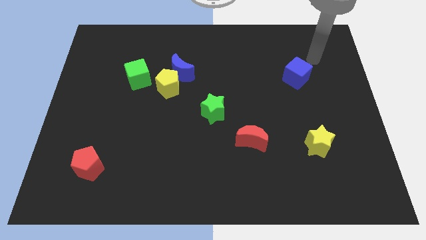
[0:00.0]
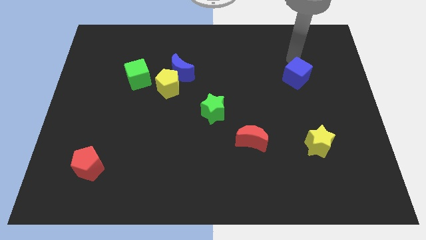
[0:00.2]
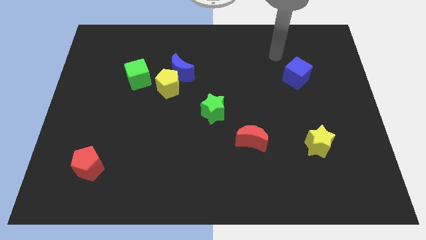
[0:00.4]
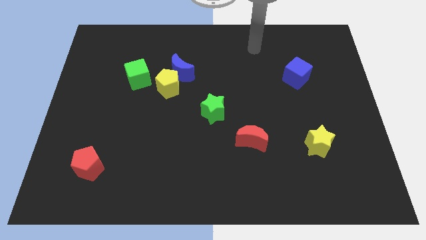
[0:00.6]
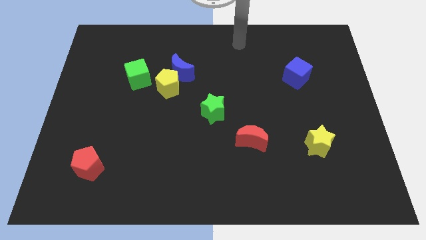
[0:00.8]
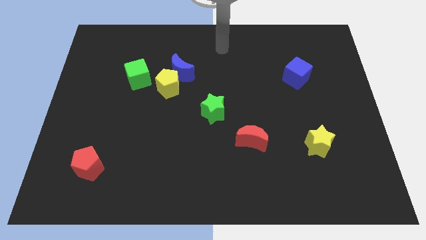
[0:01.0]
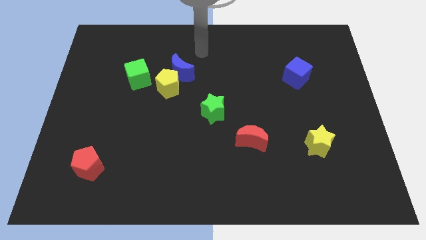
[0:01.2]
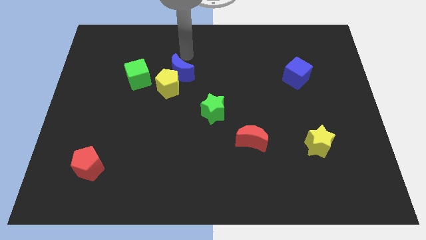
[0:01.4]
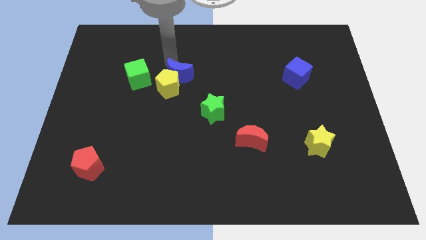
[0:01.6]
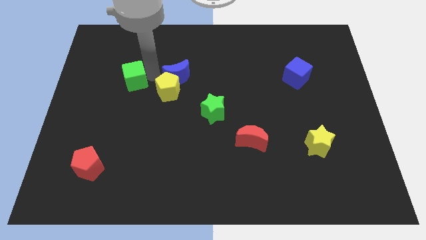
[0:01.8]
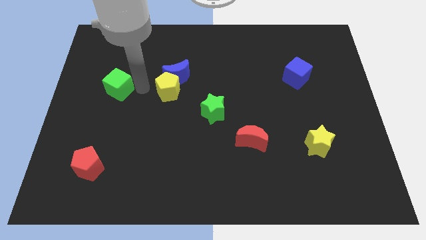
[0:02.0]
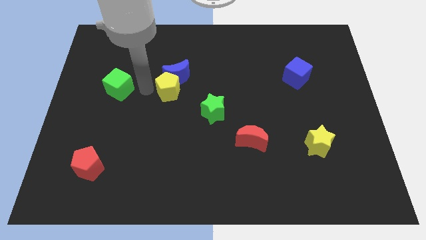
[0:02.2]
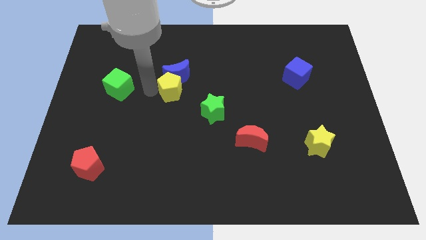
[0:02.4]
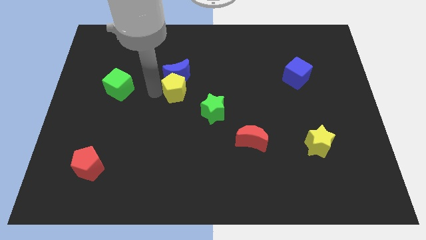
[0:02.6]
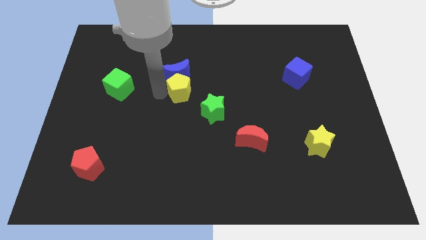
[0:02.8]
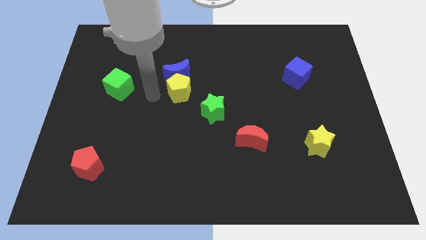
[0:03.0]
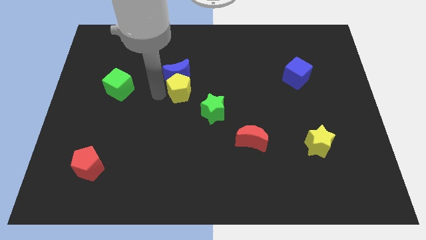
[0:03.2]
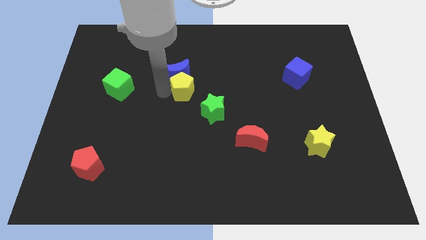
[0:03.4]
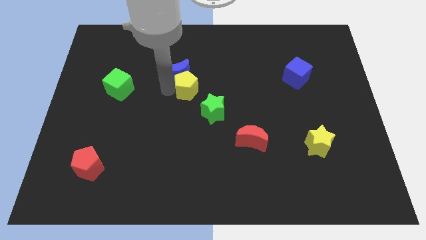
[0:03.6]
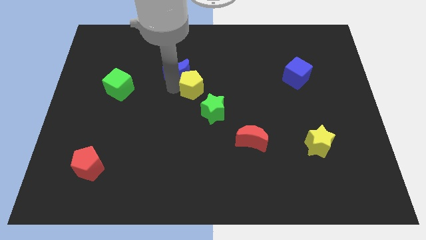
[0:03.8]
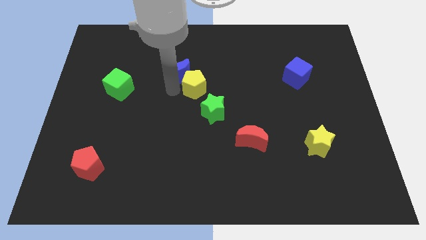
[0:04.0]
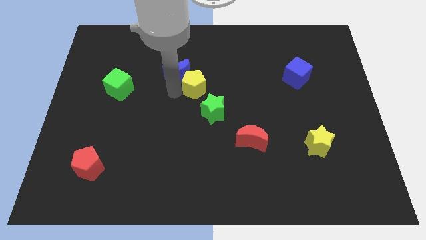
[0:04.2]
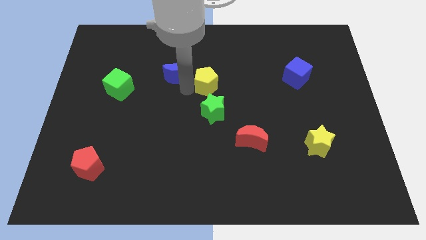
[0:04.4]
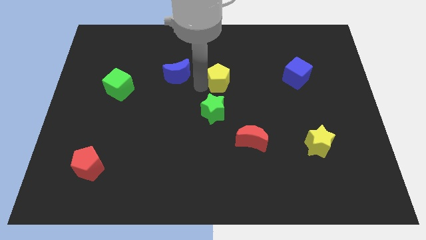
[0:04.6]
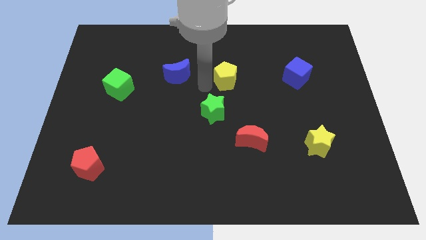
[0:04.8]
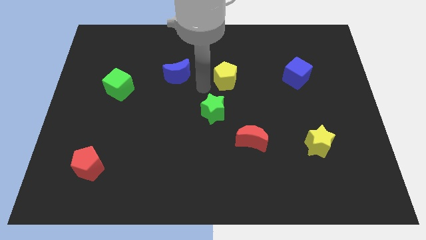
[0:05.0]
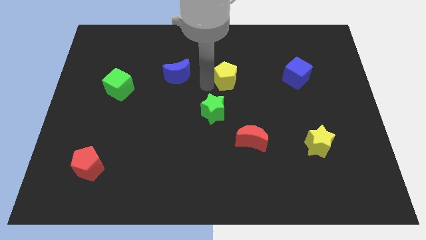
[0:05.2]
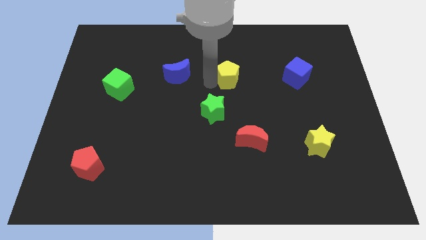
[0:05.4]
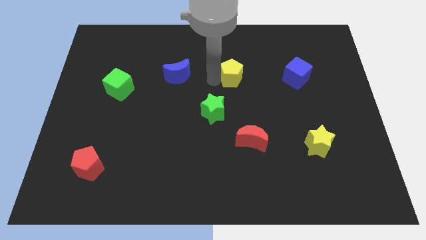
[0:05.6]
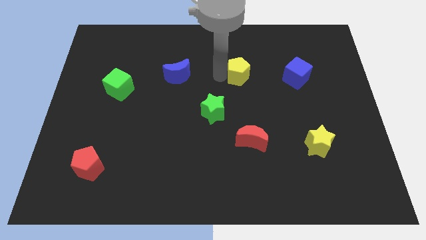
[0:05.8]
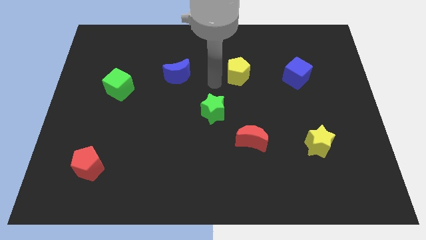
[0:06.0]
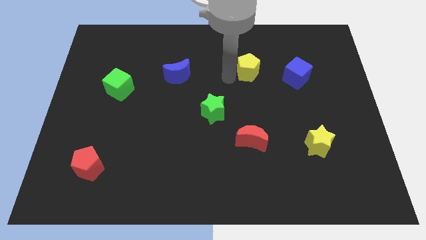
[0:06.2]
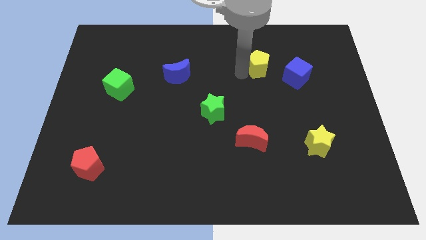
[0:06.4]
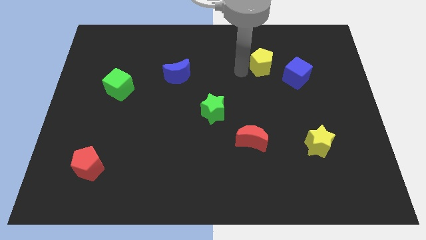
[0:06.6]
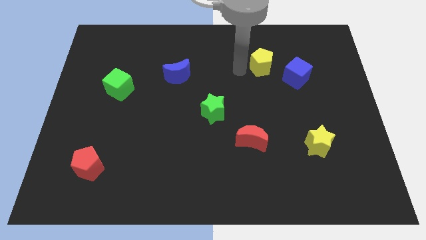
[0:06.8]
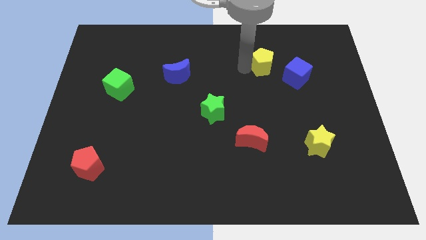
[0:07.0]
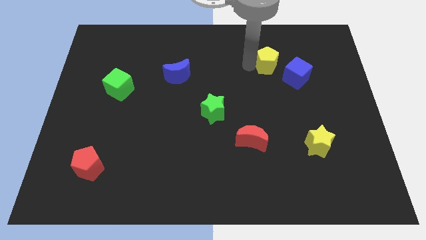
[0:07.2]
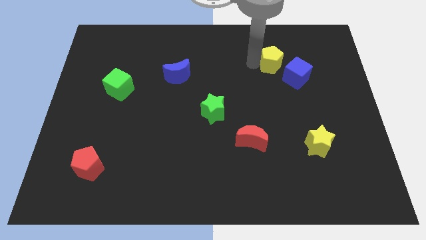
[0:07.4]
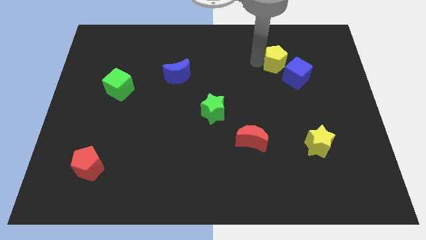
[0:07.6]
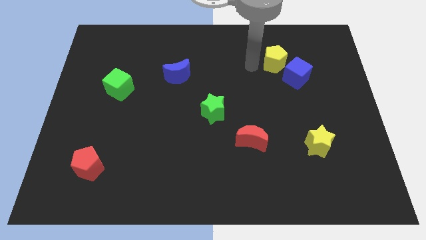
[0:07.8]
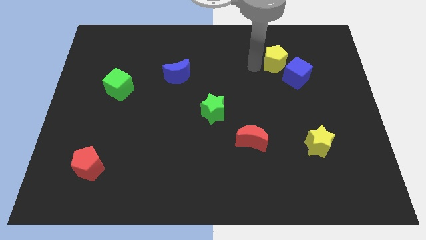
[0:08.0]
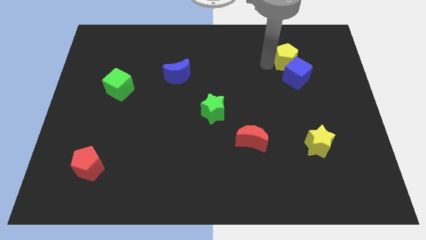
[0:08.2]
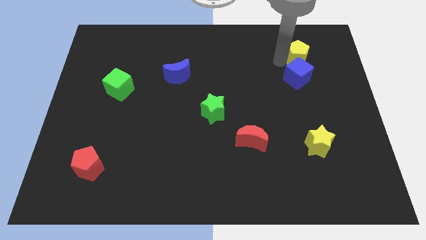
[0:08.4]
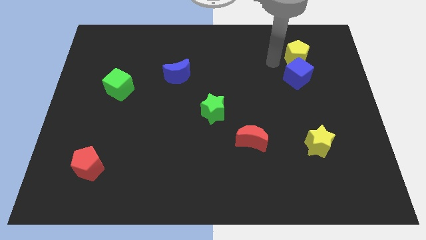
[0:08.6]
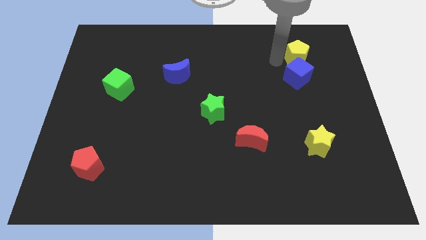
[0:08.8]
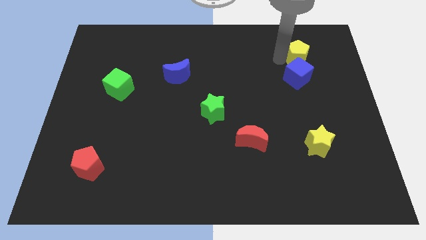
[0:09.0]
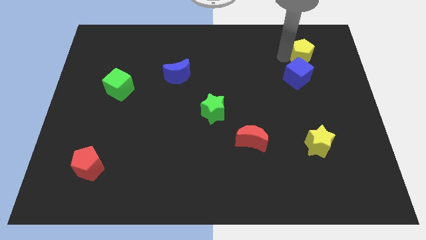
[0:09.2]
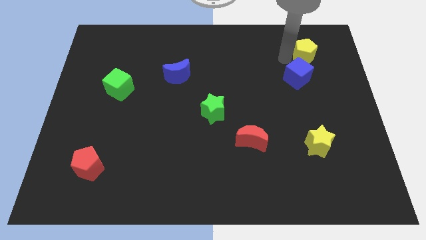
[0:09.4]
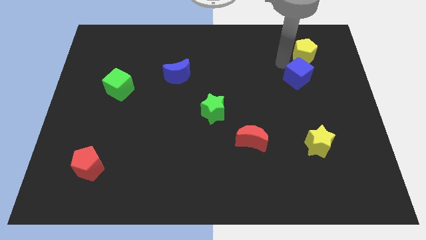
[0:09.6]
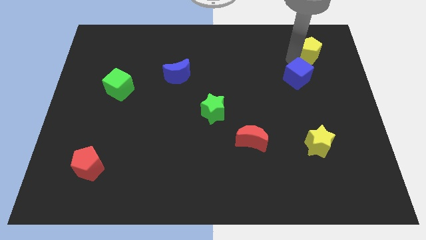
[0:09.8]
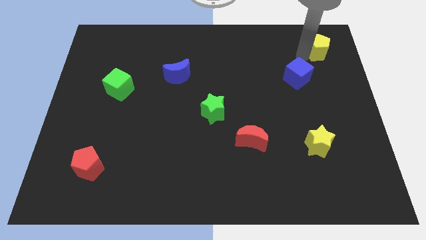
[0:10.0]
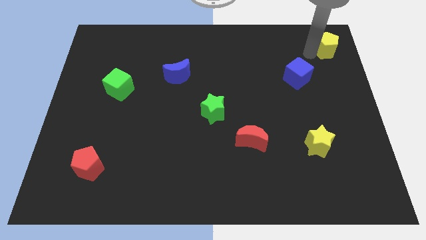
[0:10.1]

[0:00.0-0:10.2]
slide the yellow pentagon to the top right

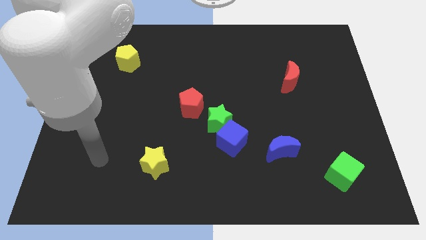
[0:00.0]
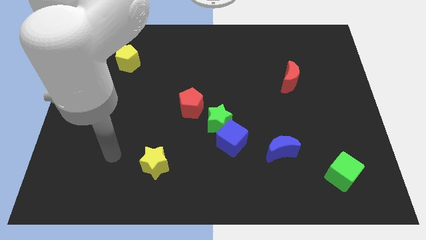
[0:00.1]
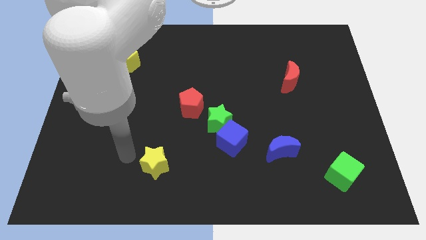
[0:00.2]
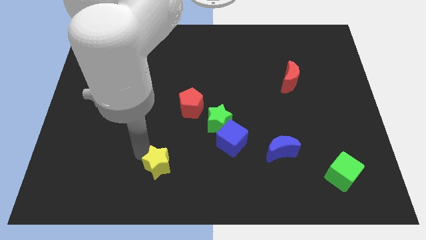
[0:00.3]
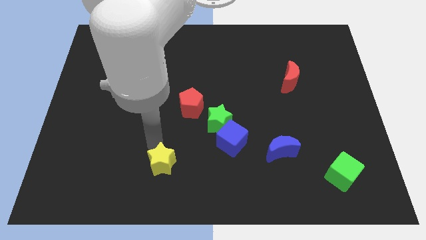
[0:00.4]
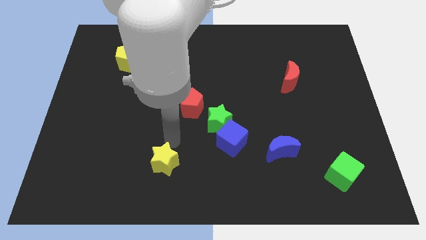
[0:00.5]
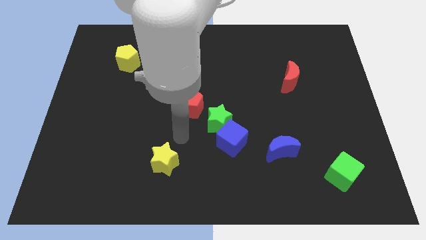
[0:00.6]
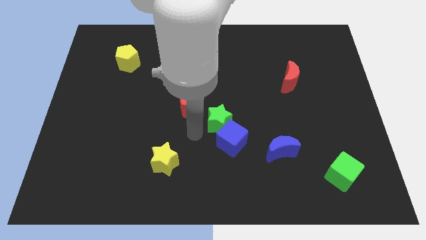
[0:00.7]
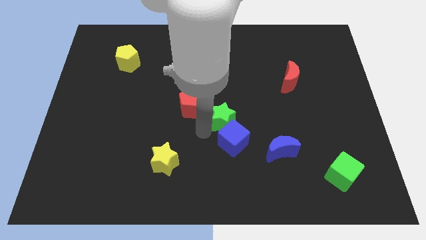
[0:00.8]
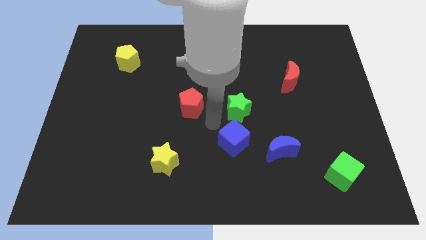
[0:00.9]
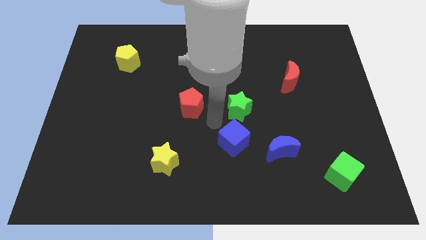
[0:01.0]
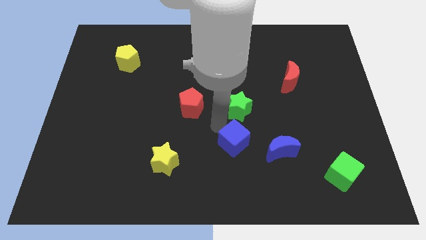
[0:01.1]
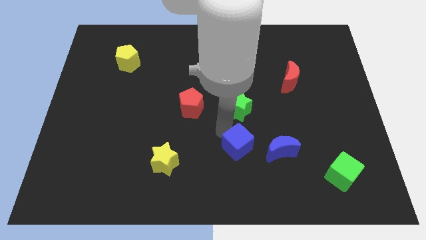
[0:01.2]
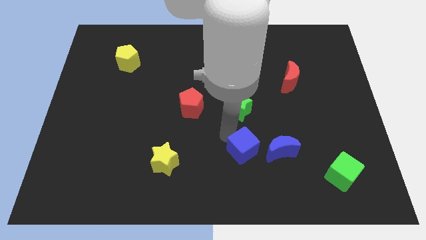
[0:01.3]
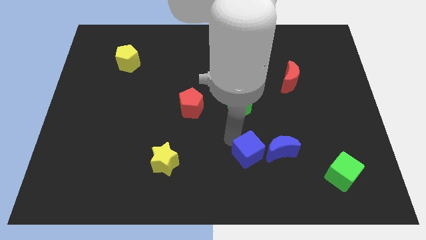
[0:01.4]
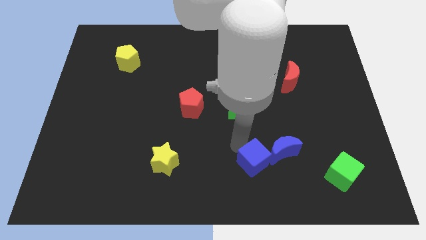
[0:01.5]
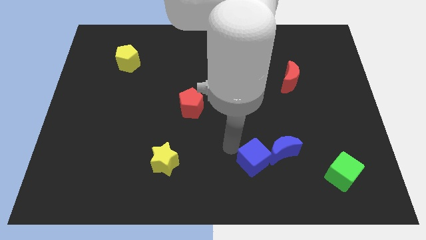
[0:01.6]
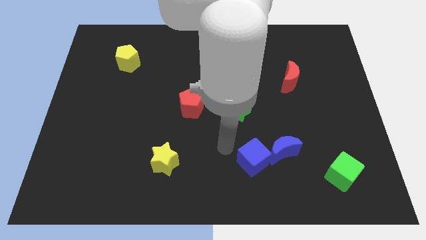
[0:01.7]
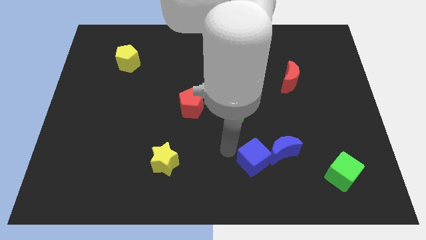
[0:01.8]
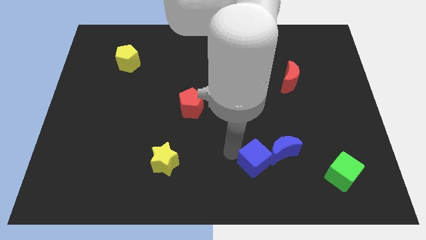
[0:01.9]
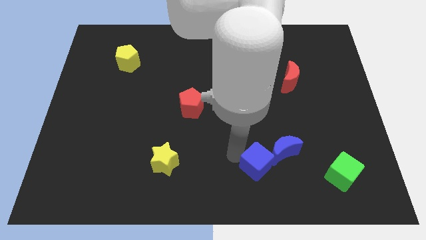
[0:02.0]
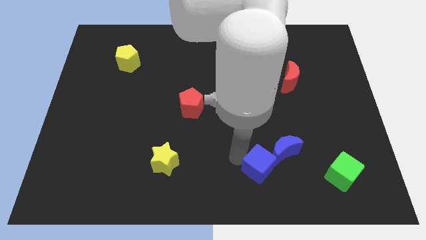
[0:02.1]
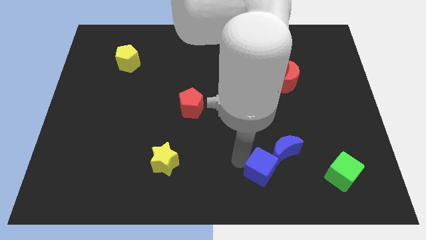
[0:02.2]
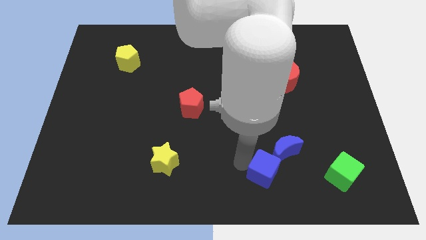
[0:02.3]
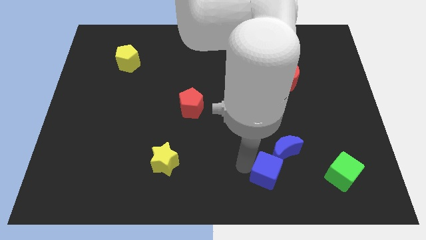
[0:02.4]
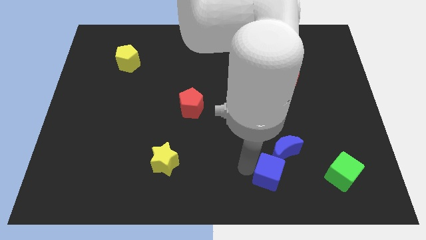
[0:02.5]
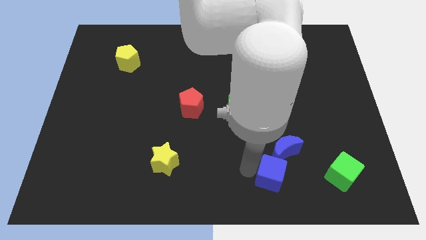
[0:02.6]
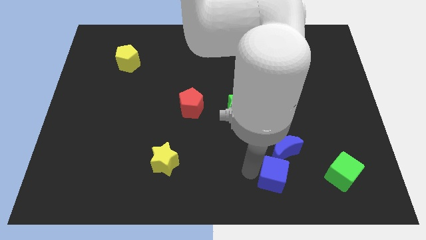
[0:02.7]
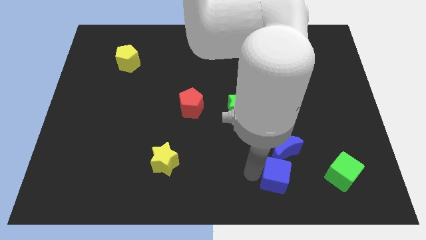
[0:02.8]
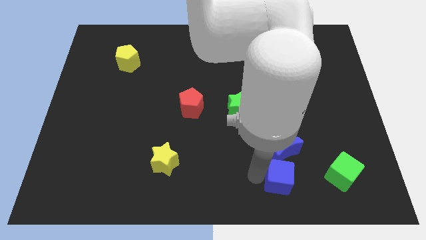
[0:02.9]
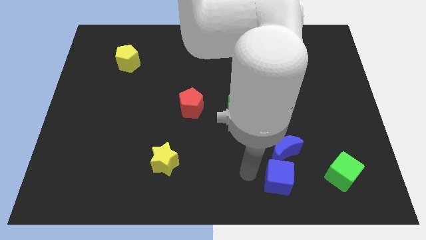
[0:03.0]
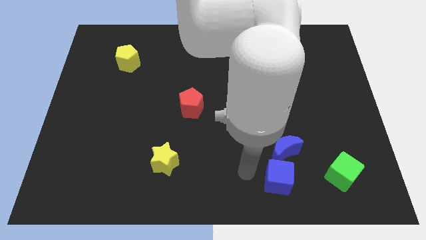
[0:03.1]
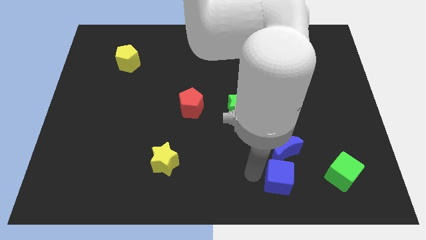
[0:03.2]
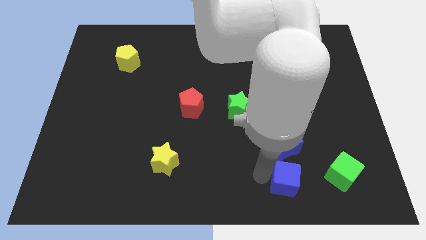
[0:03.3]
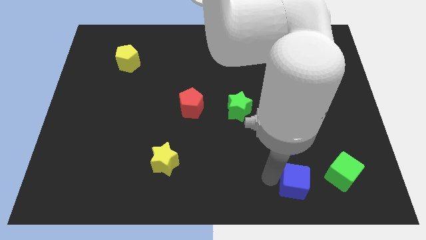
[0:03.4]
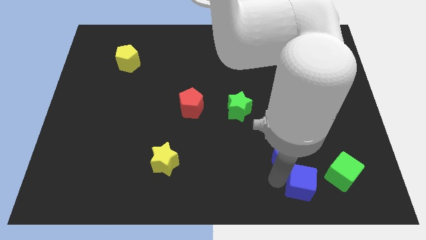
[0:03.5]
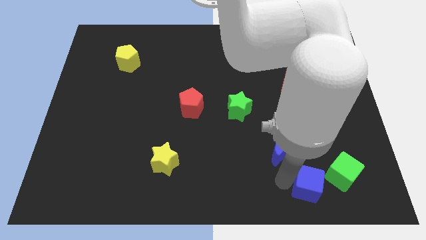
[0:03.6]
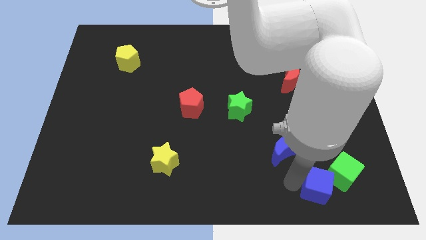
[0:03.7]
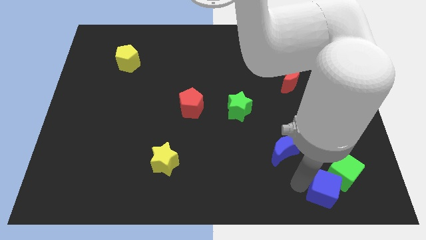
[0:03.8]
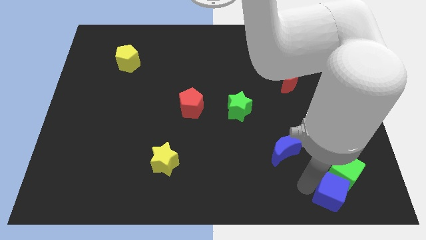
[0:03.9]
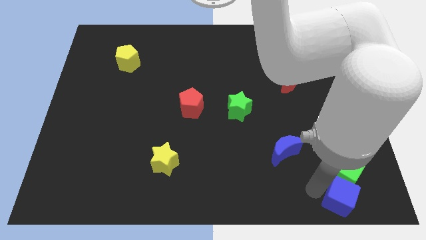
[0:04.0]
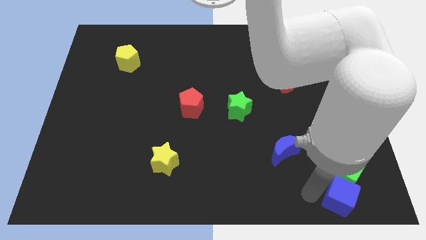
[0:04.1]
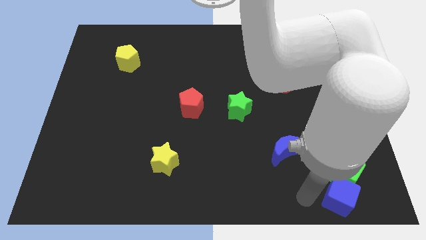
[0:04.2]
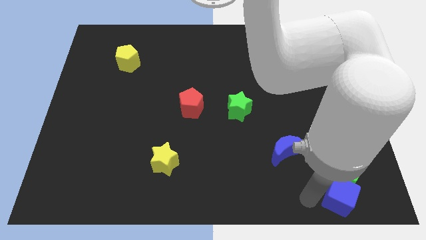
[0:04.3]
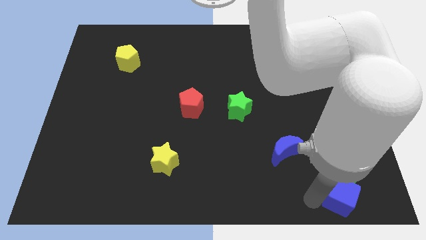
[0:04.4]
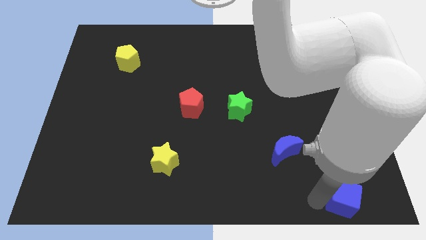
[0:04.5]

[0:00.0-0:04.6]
put the blue cube to the bottom right corner
